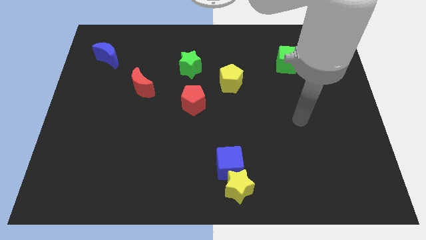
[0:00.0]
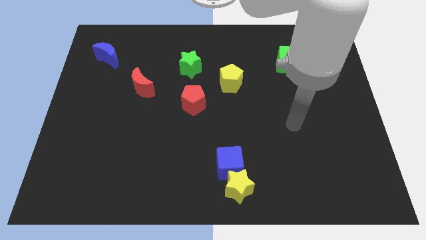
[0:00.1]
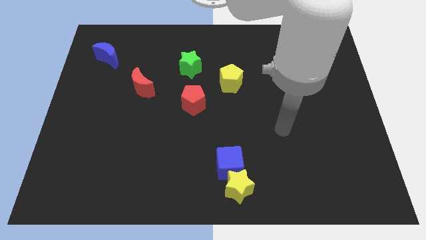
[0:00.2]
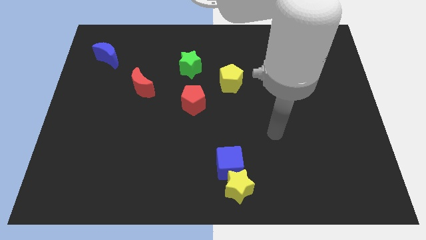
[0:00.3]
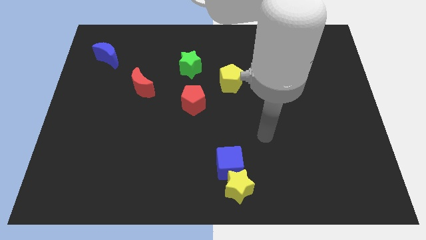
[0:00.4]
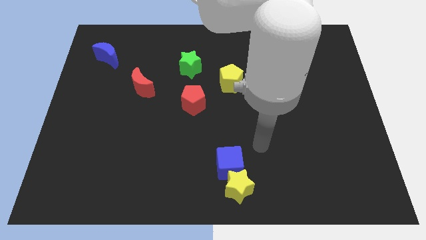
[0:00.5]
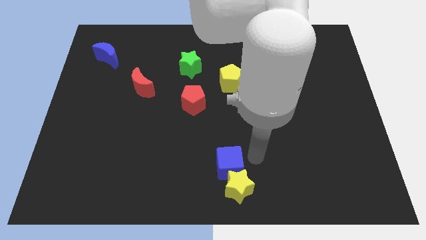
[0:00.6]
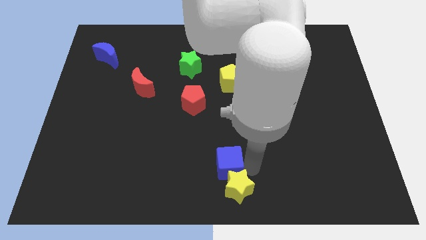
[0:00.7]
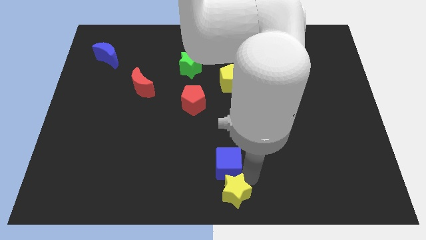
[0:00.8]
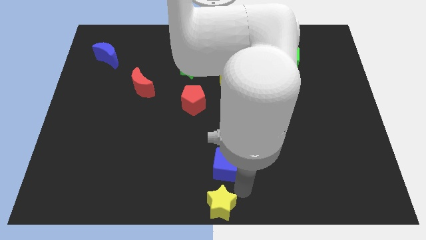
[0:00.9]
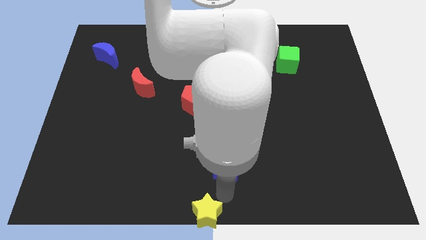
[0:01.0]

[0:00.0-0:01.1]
pull the blue cube apart from the yellow star

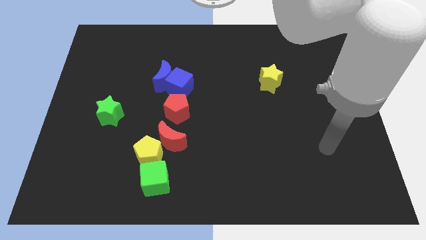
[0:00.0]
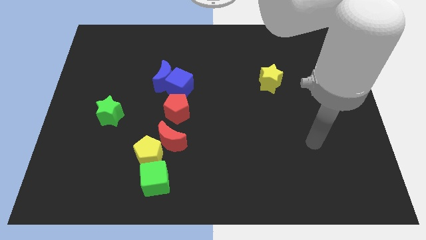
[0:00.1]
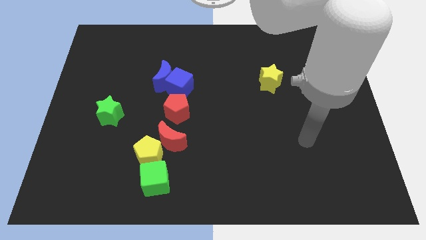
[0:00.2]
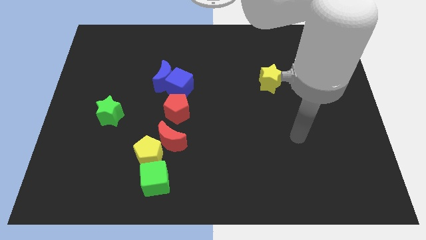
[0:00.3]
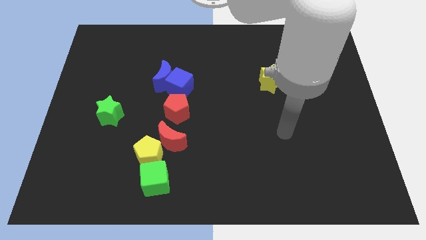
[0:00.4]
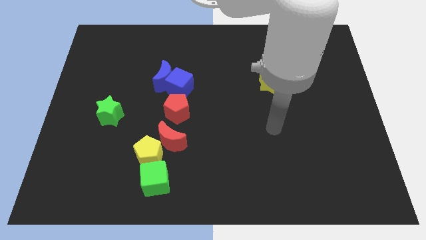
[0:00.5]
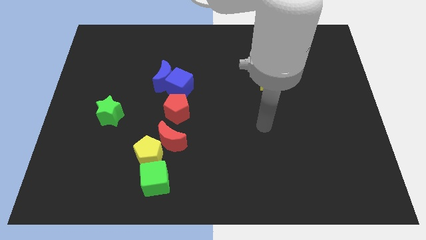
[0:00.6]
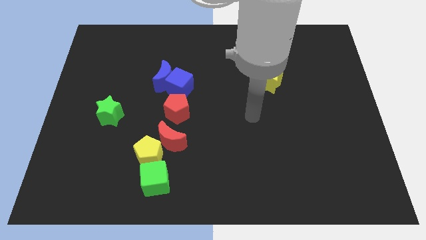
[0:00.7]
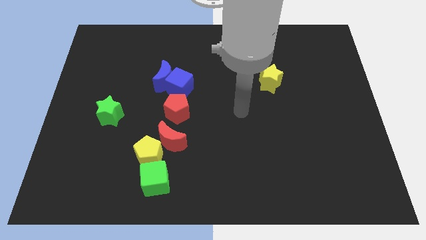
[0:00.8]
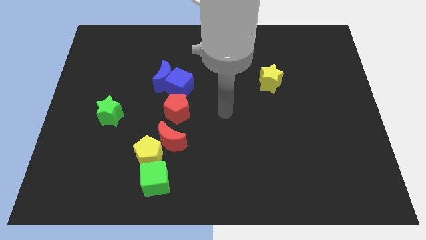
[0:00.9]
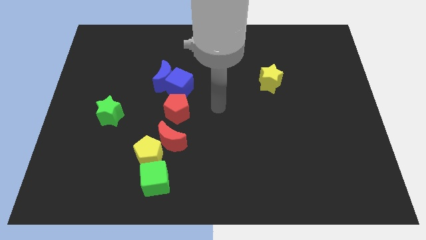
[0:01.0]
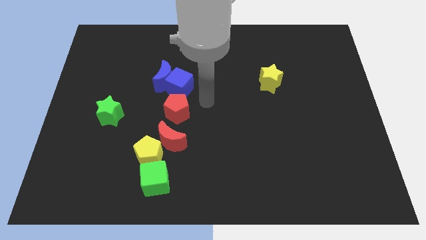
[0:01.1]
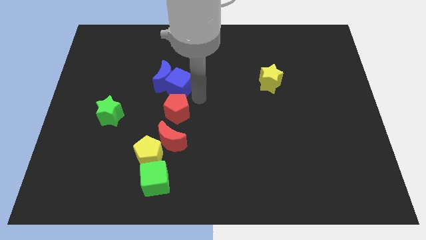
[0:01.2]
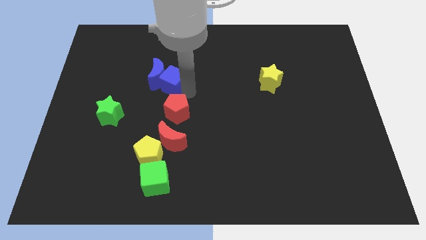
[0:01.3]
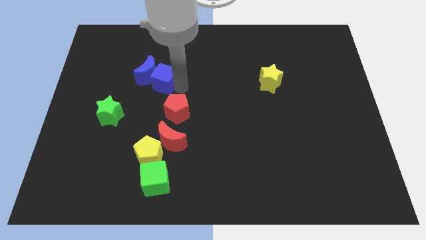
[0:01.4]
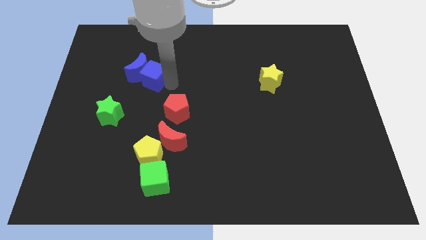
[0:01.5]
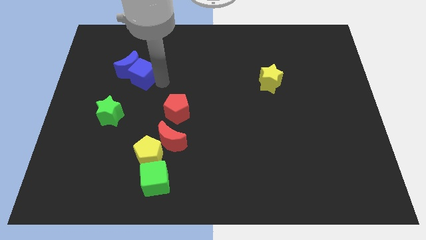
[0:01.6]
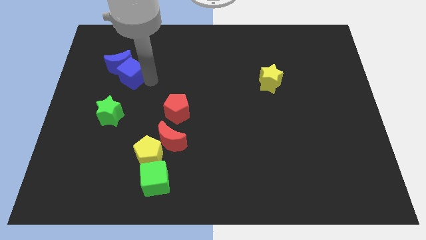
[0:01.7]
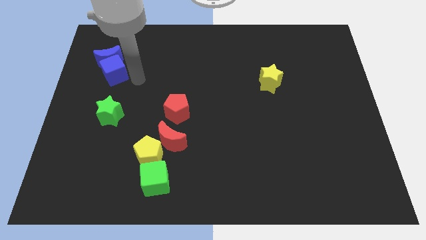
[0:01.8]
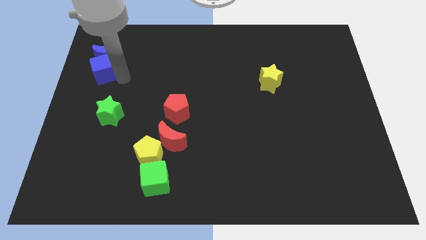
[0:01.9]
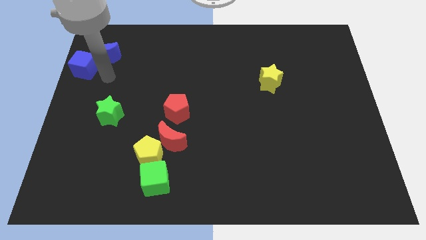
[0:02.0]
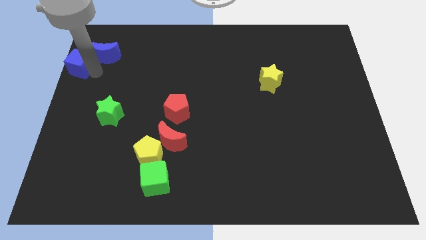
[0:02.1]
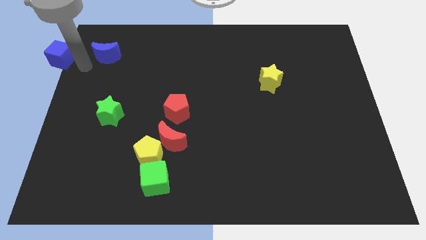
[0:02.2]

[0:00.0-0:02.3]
pull the blue moon apart from the blue cube

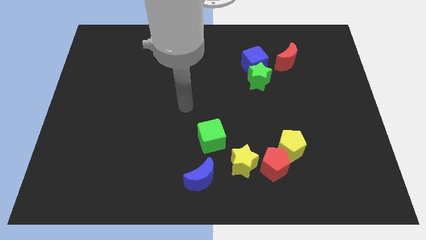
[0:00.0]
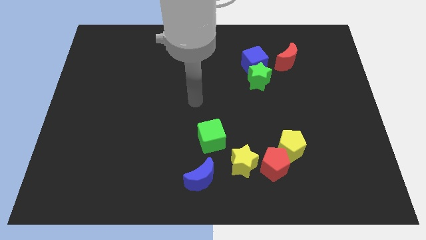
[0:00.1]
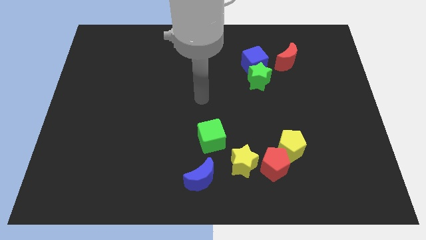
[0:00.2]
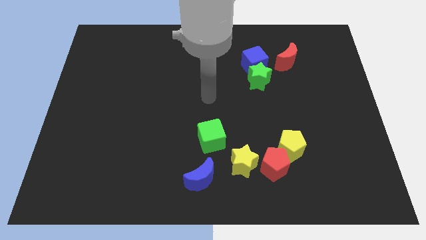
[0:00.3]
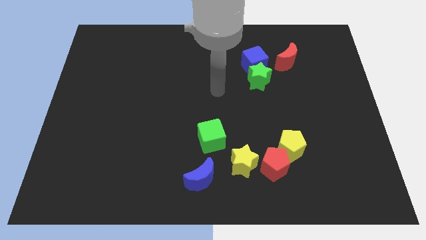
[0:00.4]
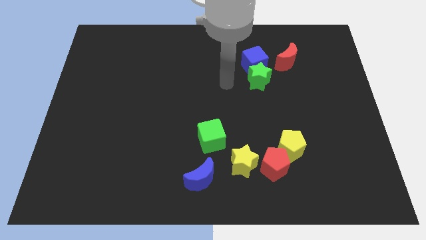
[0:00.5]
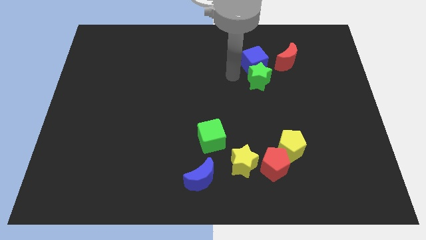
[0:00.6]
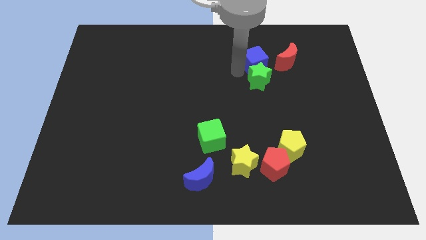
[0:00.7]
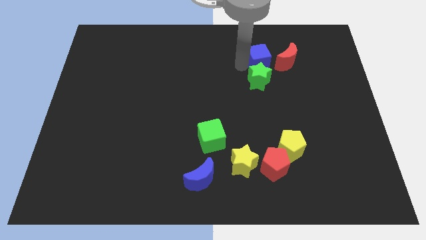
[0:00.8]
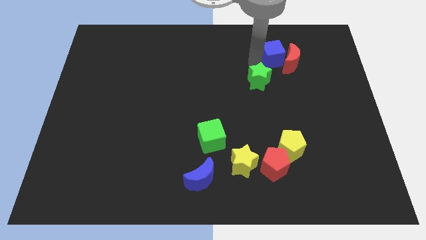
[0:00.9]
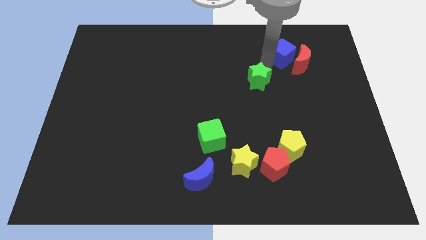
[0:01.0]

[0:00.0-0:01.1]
separate the green star from the blue cube

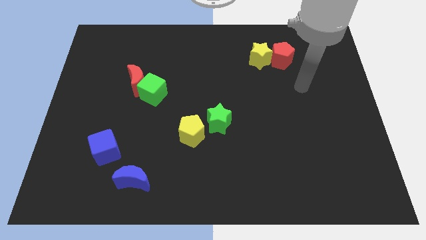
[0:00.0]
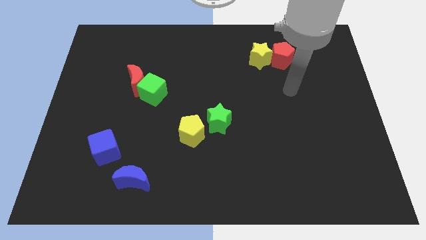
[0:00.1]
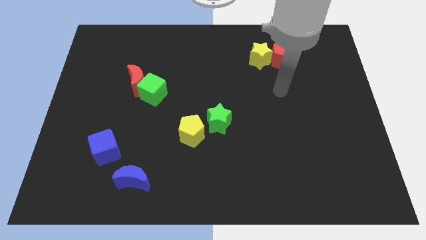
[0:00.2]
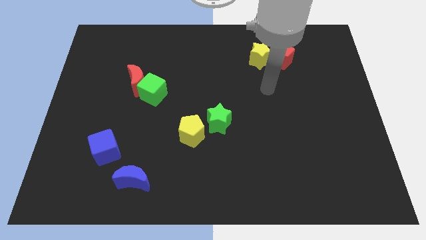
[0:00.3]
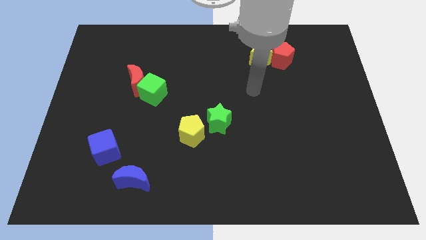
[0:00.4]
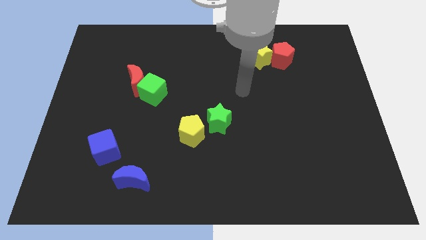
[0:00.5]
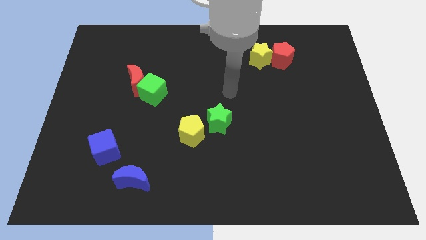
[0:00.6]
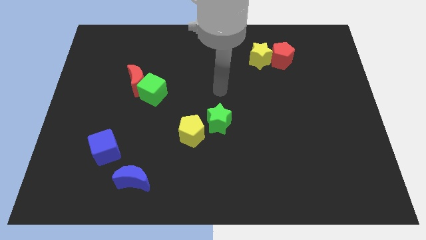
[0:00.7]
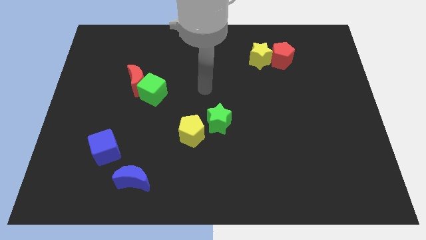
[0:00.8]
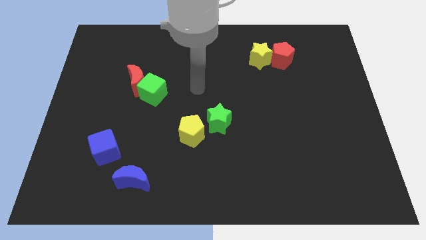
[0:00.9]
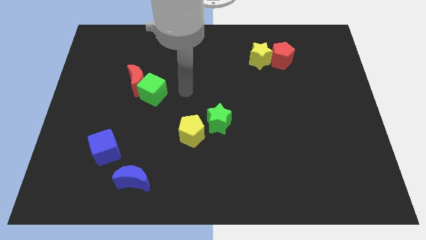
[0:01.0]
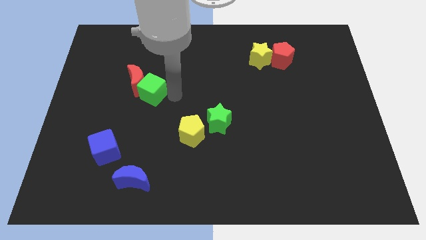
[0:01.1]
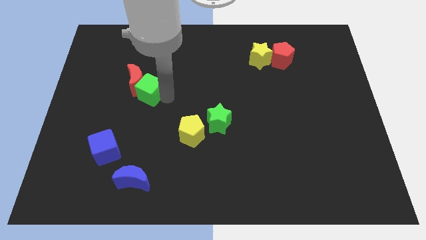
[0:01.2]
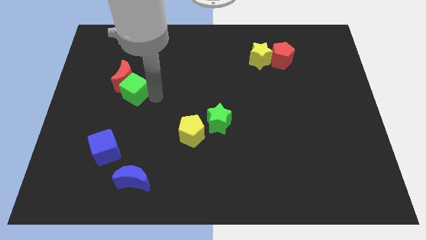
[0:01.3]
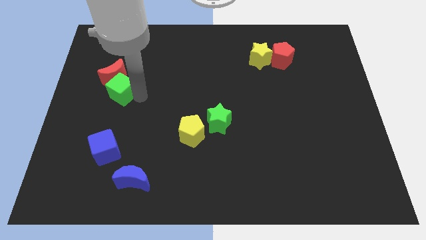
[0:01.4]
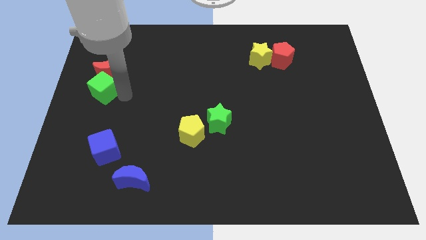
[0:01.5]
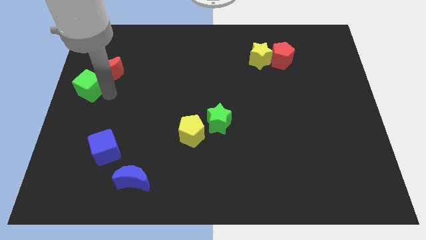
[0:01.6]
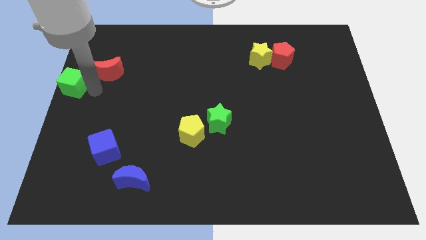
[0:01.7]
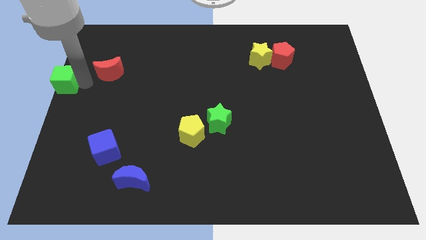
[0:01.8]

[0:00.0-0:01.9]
pull the red moon apart from the green cube

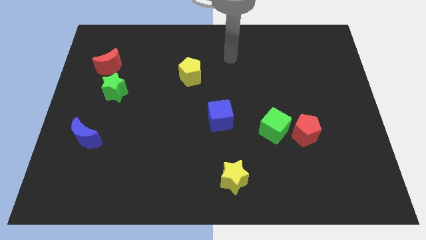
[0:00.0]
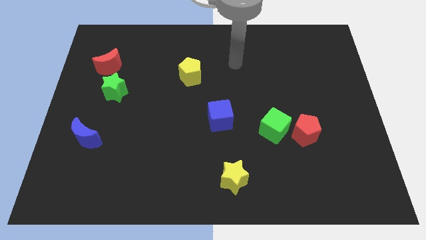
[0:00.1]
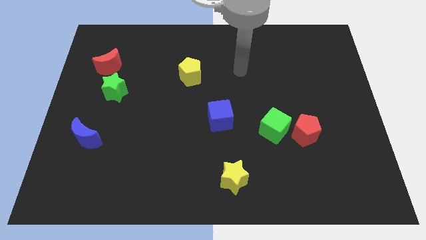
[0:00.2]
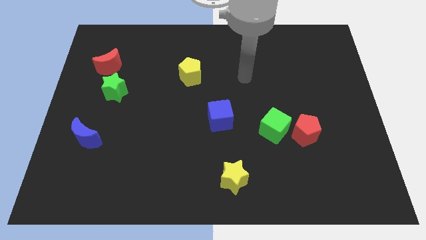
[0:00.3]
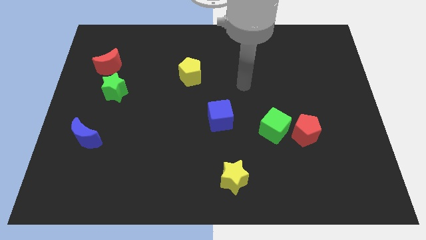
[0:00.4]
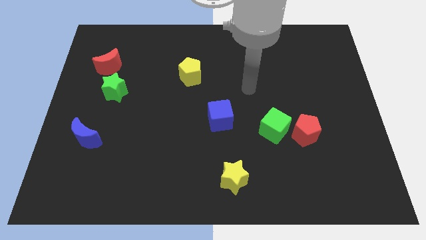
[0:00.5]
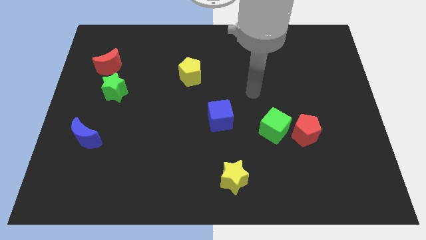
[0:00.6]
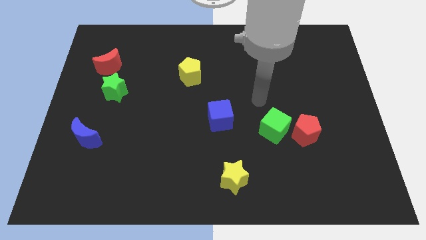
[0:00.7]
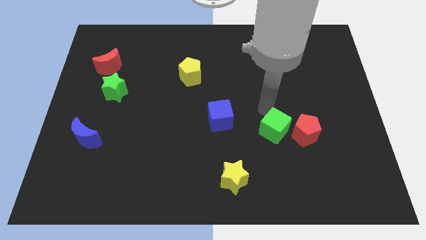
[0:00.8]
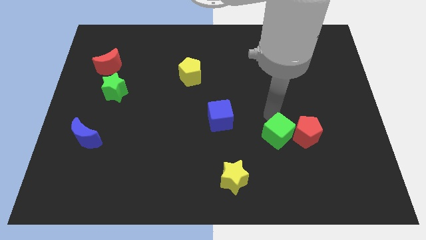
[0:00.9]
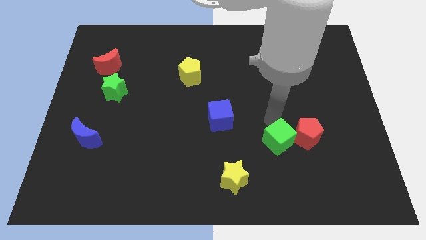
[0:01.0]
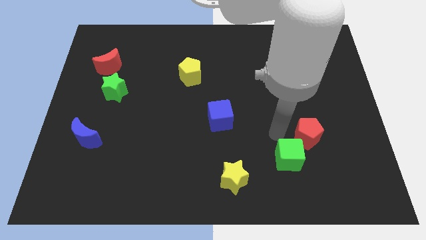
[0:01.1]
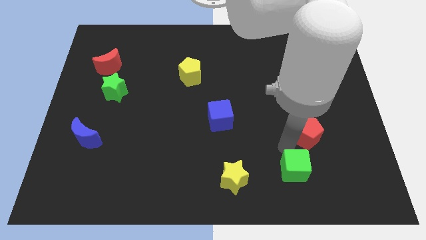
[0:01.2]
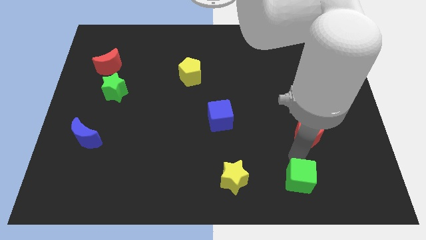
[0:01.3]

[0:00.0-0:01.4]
separate the red pentagon from the green cube

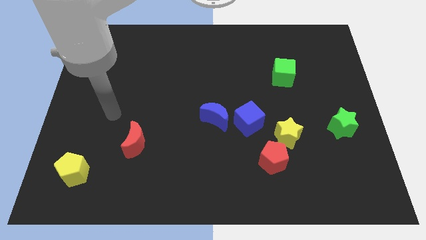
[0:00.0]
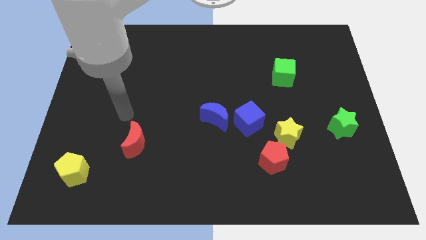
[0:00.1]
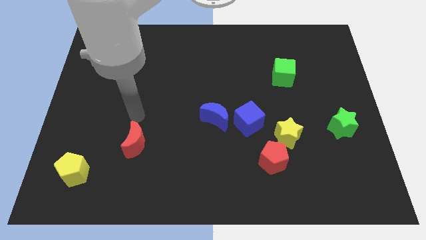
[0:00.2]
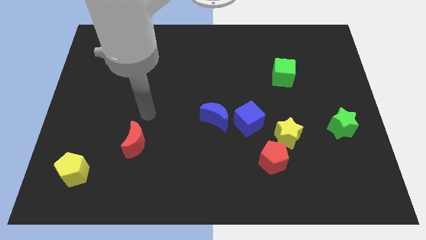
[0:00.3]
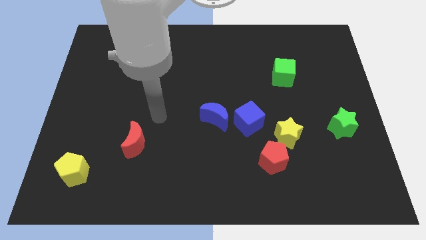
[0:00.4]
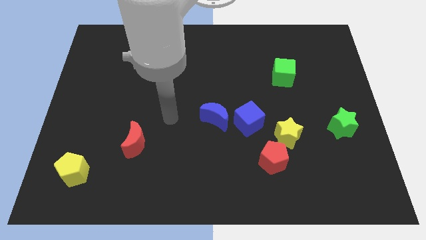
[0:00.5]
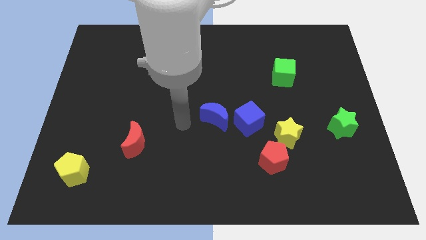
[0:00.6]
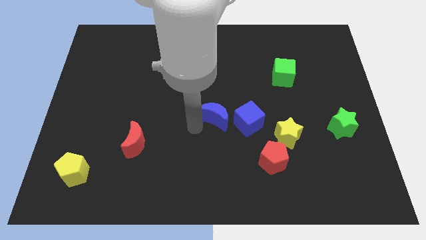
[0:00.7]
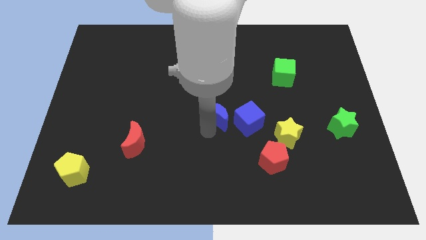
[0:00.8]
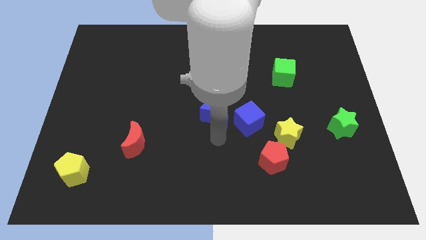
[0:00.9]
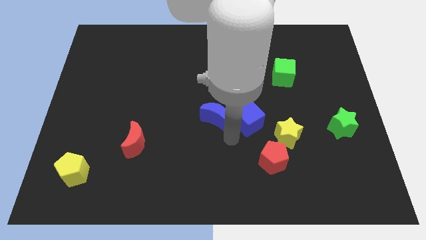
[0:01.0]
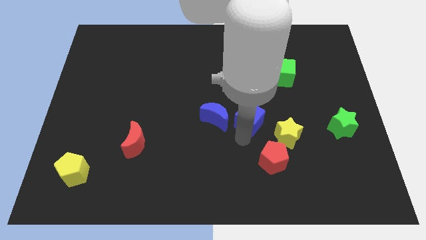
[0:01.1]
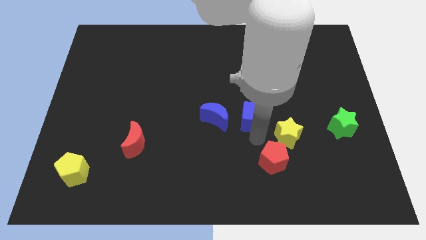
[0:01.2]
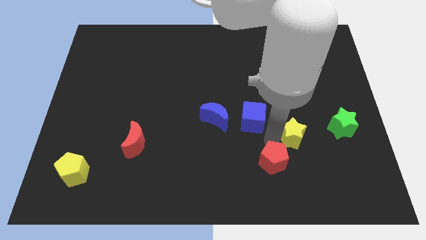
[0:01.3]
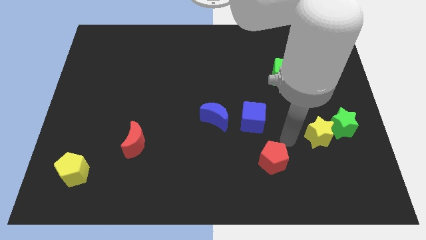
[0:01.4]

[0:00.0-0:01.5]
separate the red pentagon from the yellow star
